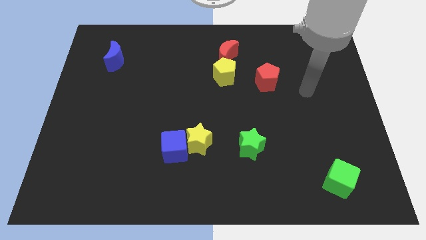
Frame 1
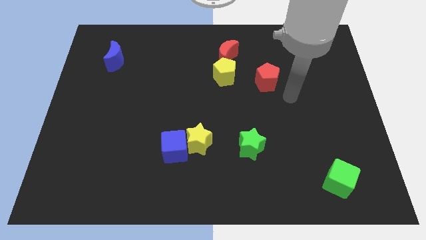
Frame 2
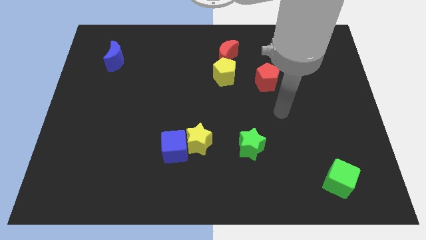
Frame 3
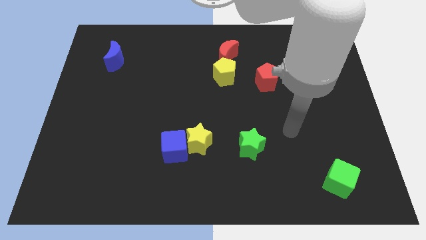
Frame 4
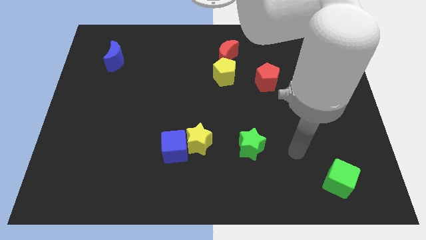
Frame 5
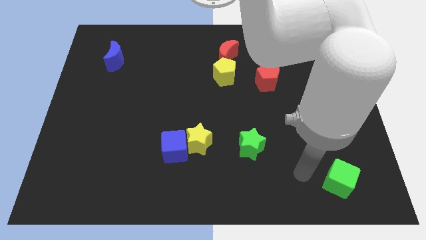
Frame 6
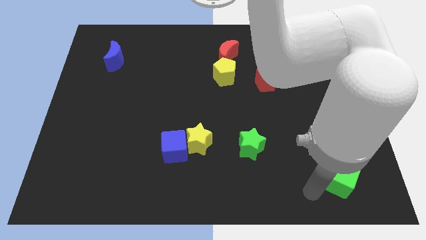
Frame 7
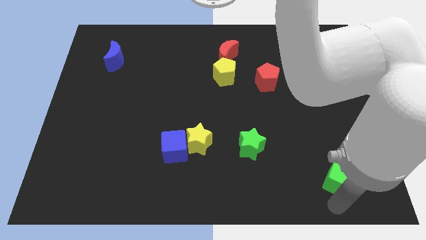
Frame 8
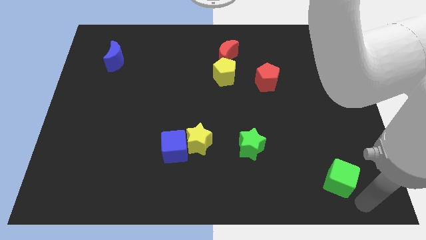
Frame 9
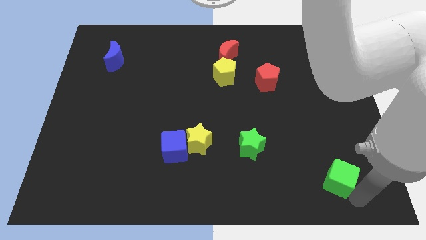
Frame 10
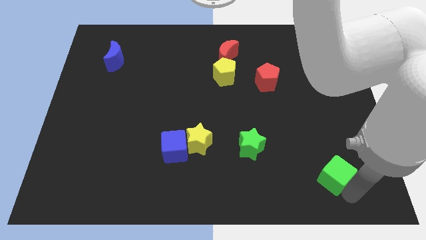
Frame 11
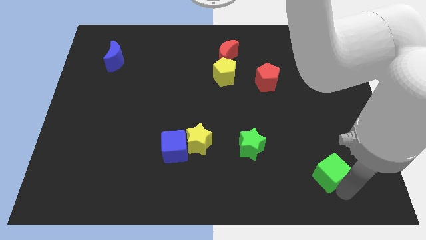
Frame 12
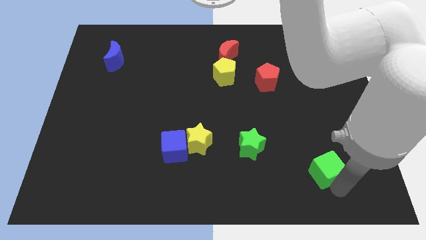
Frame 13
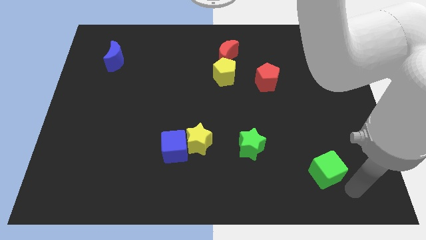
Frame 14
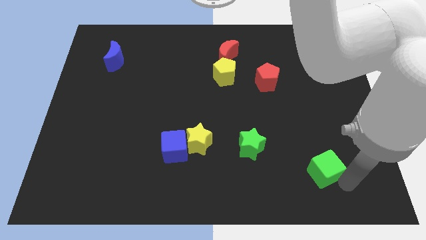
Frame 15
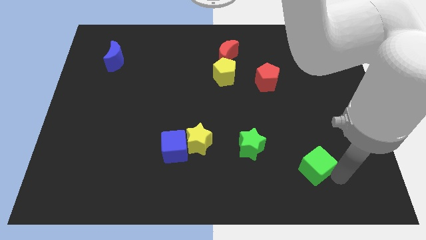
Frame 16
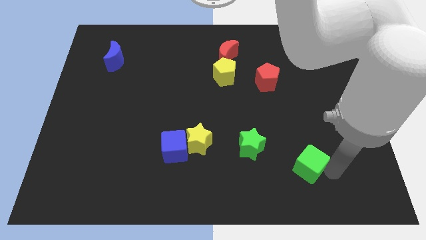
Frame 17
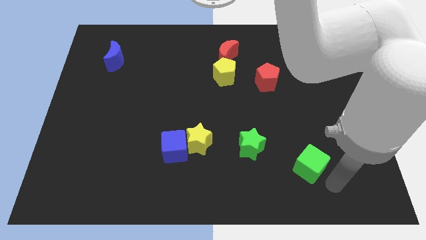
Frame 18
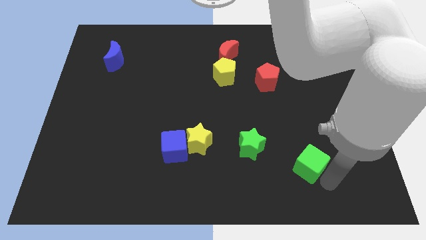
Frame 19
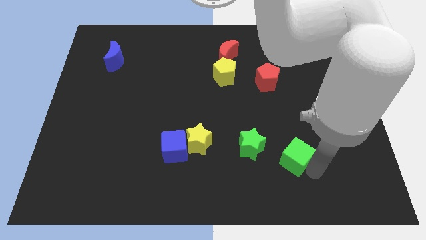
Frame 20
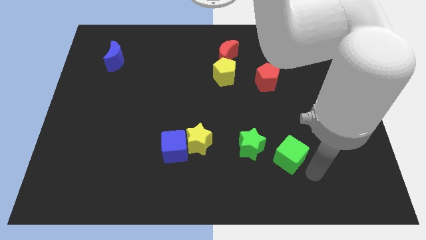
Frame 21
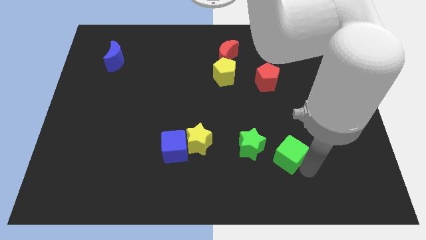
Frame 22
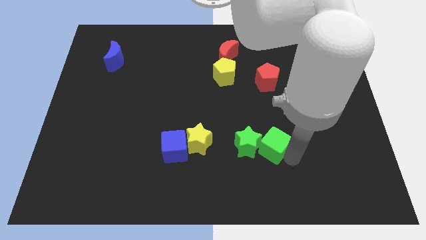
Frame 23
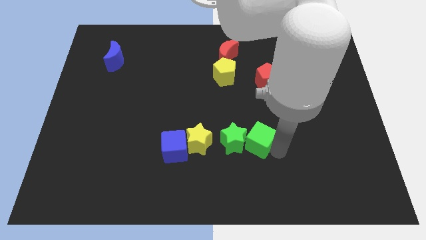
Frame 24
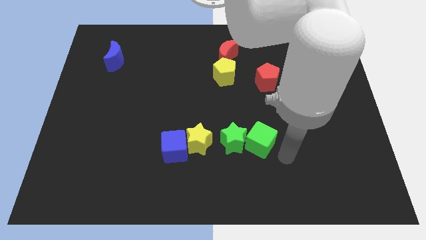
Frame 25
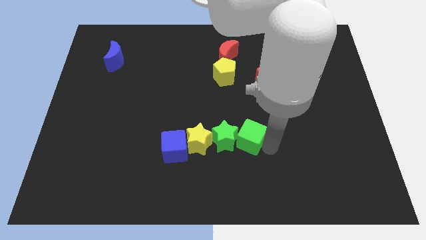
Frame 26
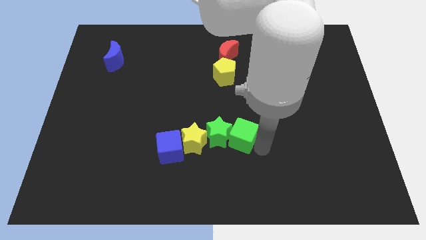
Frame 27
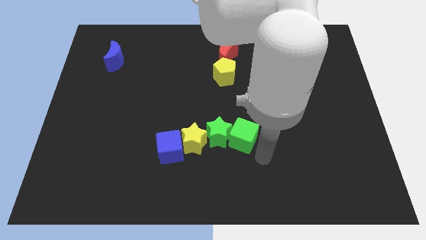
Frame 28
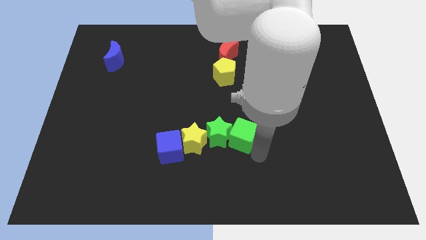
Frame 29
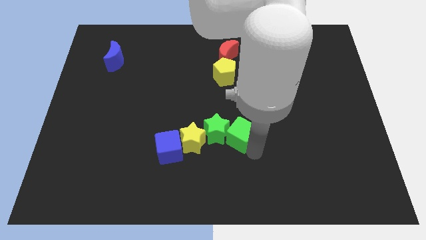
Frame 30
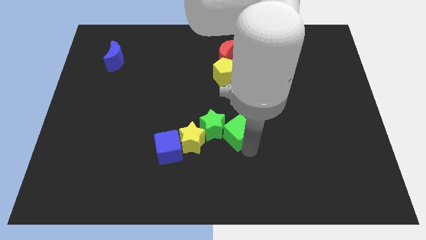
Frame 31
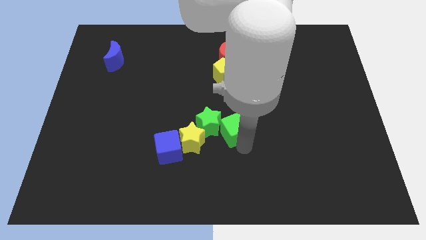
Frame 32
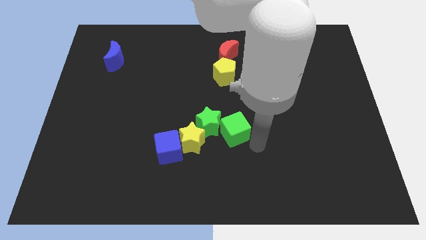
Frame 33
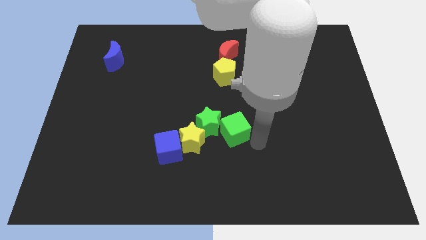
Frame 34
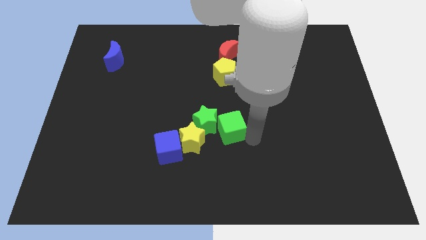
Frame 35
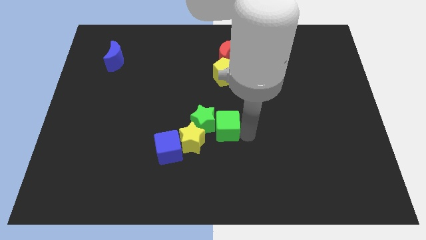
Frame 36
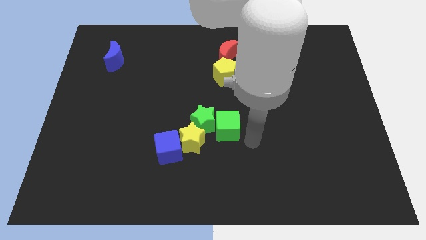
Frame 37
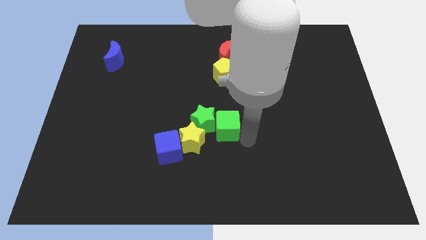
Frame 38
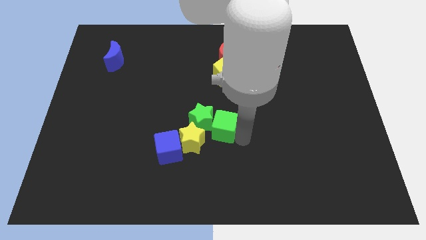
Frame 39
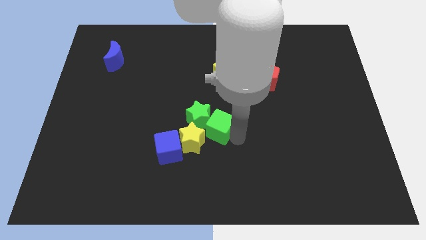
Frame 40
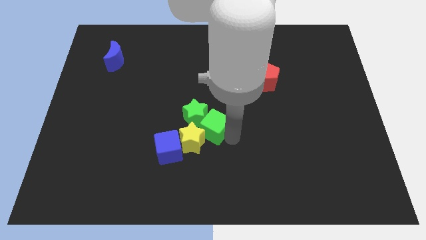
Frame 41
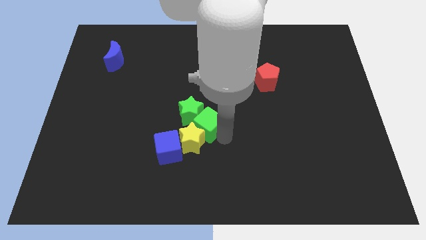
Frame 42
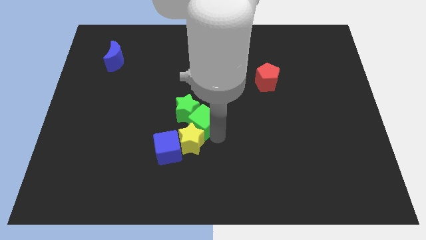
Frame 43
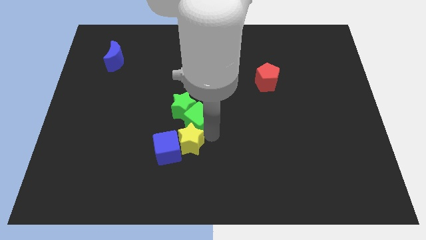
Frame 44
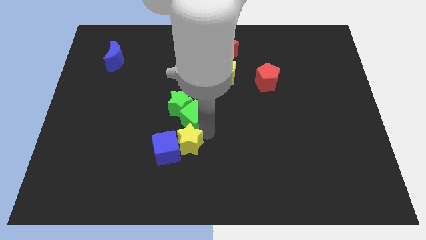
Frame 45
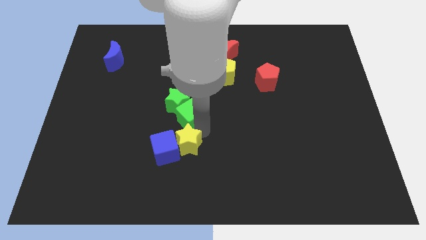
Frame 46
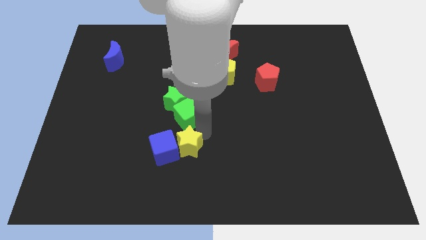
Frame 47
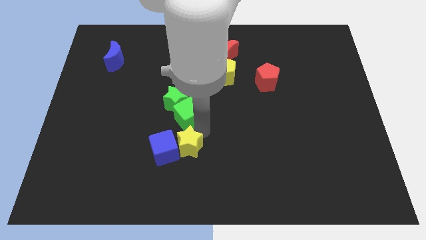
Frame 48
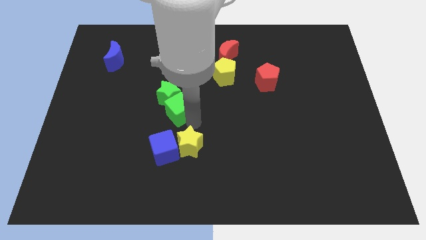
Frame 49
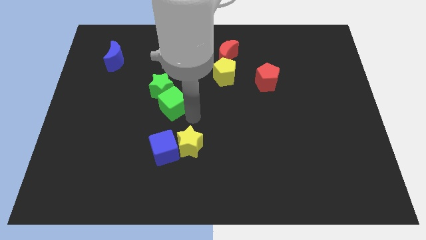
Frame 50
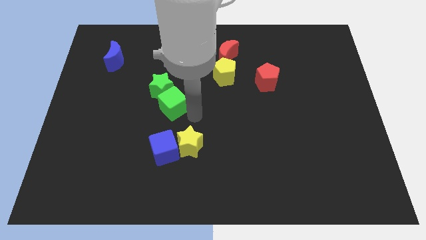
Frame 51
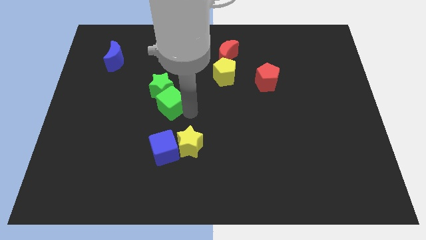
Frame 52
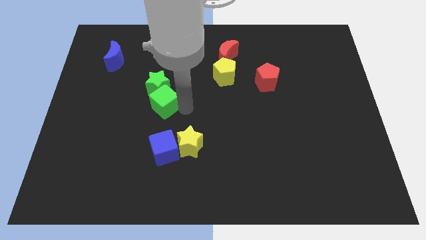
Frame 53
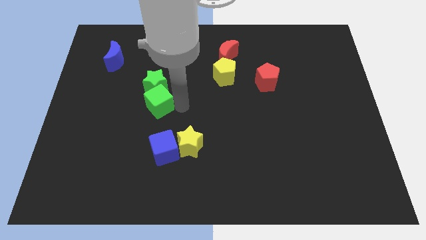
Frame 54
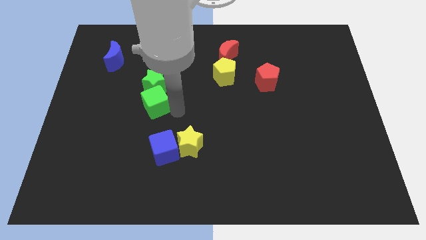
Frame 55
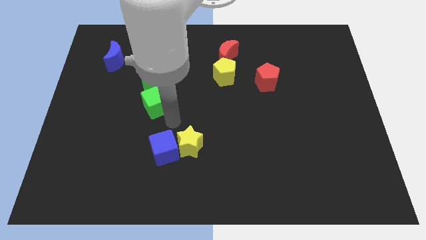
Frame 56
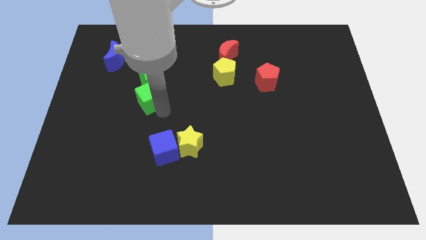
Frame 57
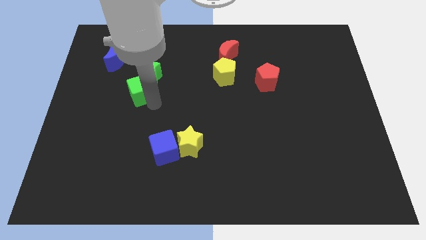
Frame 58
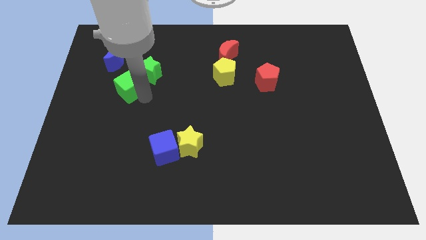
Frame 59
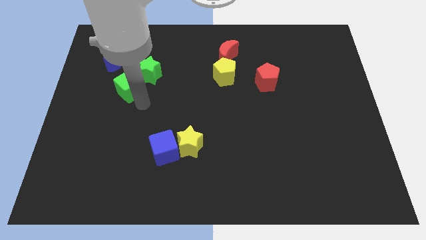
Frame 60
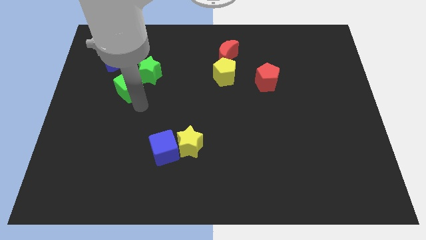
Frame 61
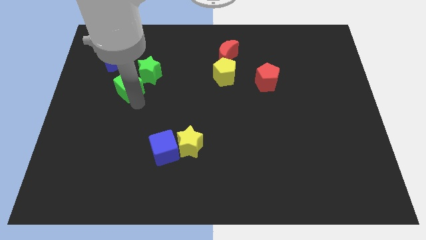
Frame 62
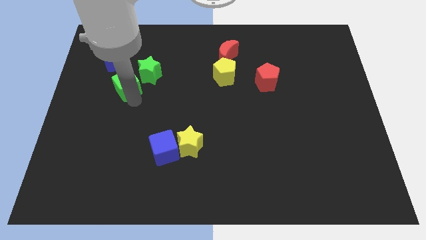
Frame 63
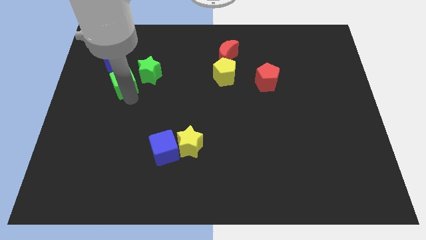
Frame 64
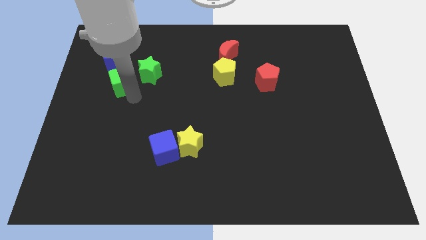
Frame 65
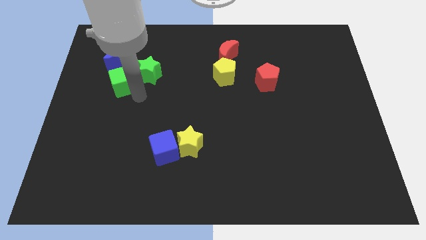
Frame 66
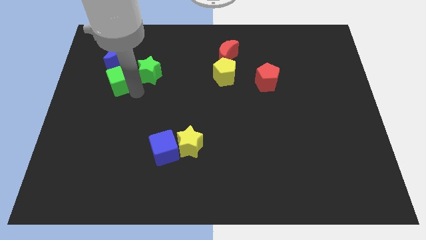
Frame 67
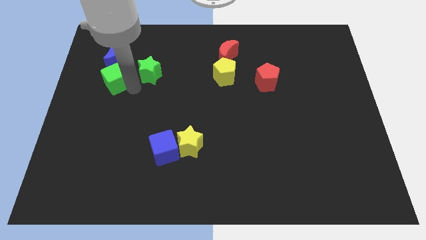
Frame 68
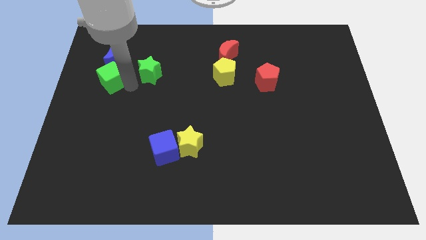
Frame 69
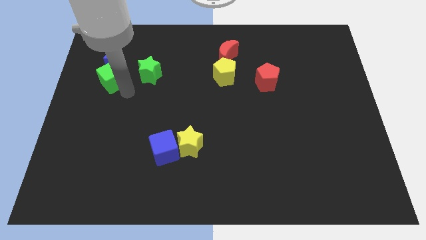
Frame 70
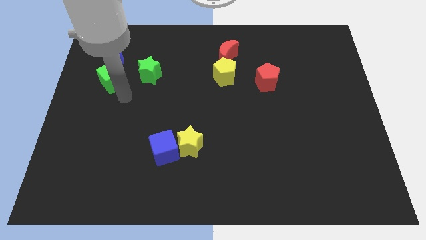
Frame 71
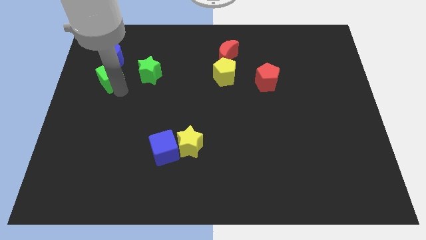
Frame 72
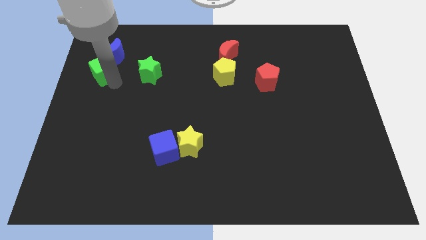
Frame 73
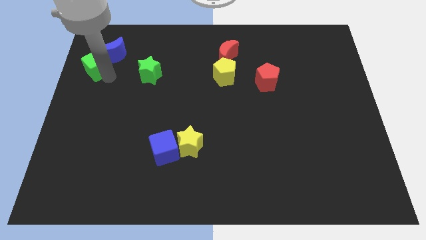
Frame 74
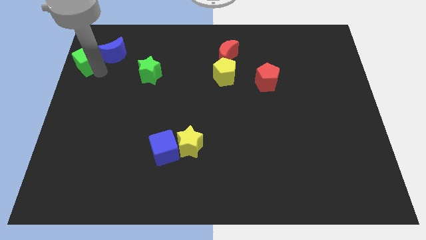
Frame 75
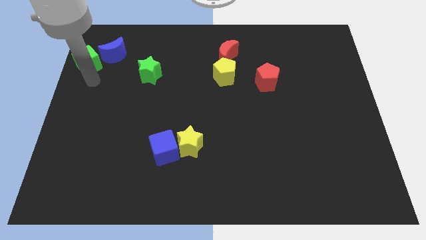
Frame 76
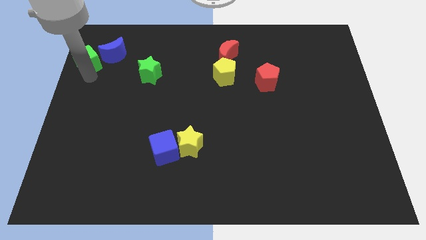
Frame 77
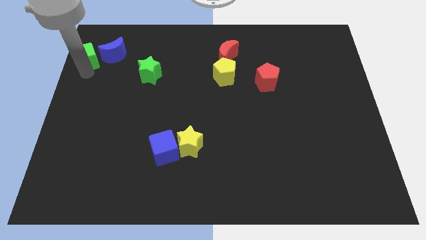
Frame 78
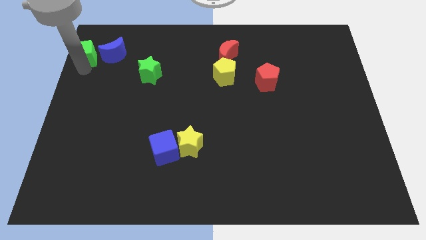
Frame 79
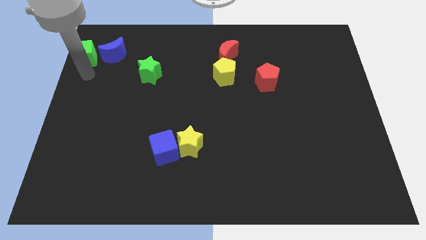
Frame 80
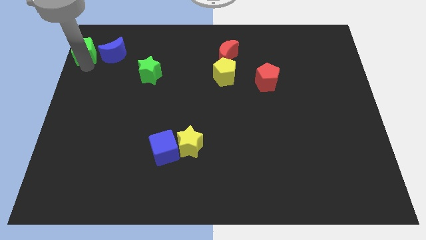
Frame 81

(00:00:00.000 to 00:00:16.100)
put the green cube to the top left
